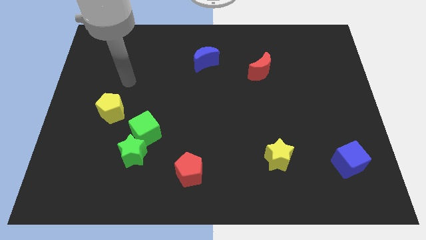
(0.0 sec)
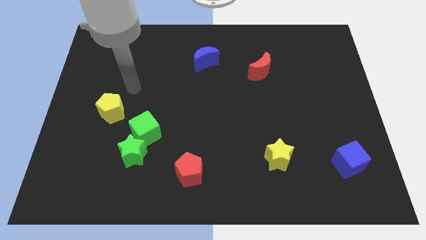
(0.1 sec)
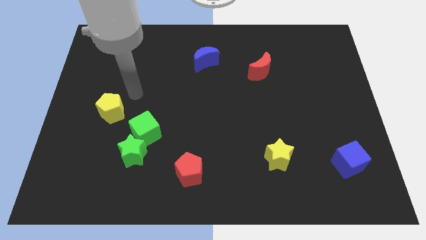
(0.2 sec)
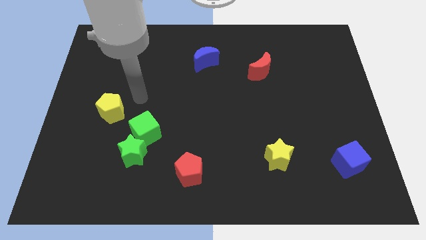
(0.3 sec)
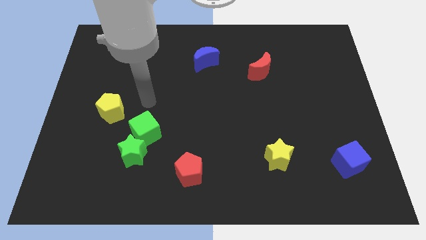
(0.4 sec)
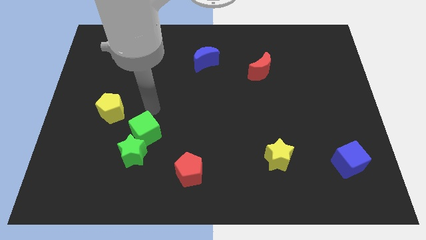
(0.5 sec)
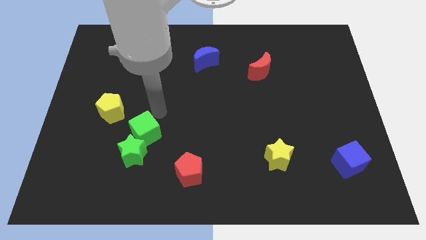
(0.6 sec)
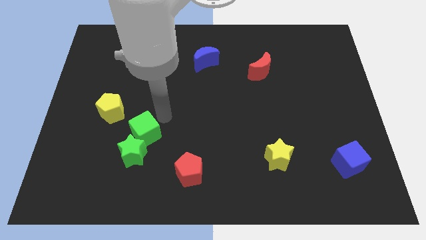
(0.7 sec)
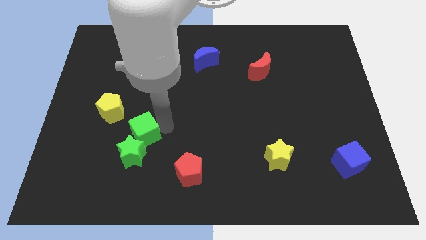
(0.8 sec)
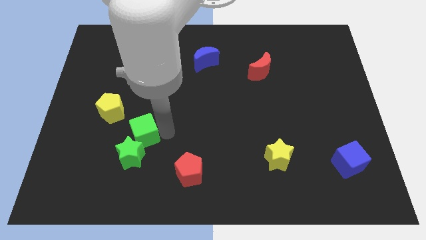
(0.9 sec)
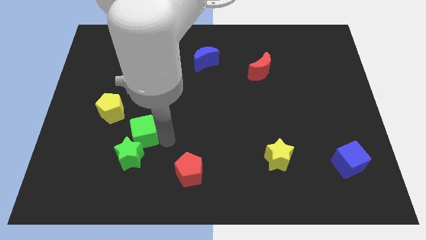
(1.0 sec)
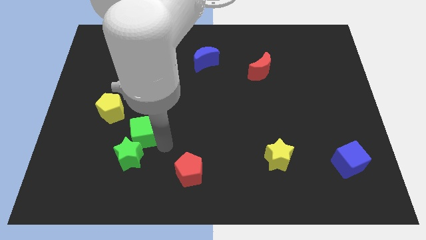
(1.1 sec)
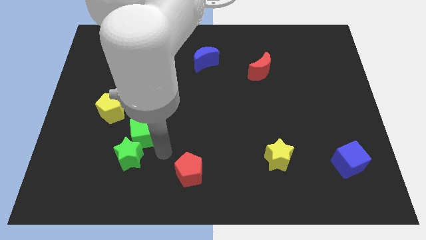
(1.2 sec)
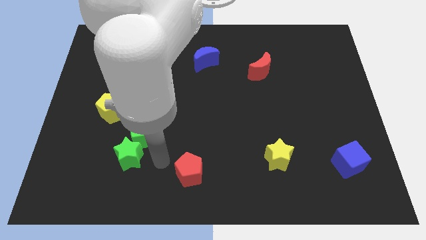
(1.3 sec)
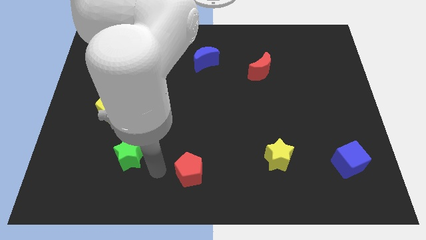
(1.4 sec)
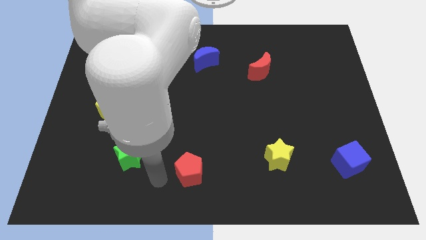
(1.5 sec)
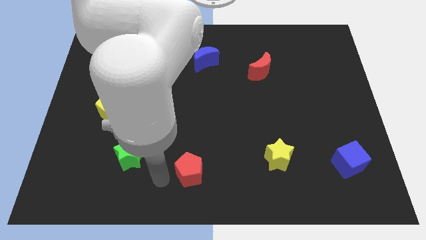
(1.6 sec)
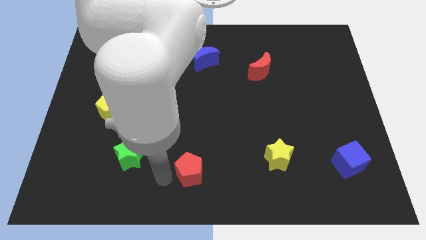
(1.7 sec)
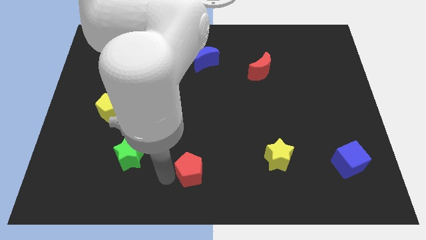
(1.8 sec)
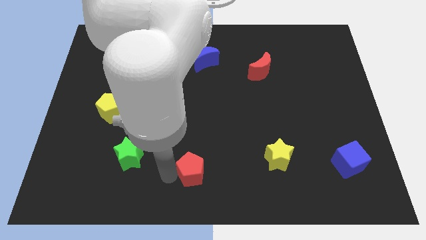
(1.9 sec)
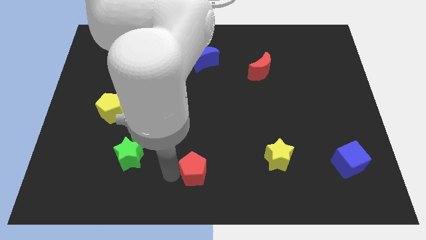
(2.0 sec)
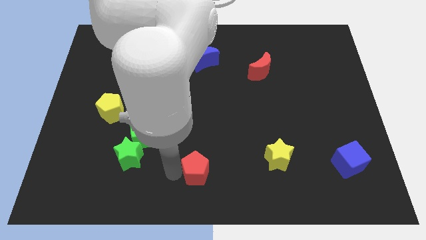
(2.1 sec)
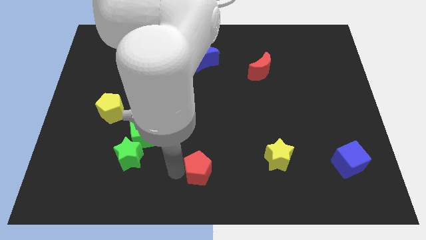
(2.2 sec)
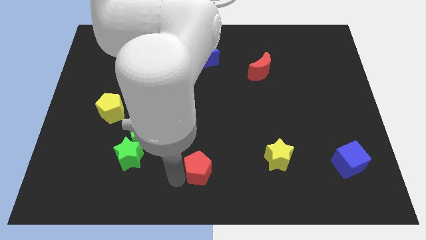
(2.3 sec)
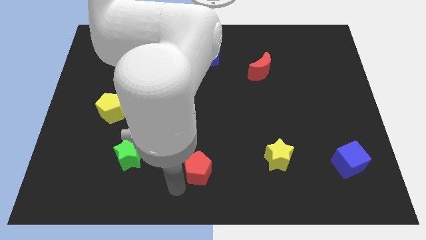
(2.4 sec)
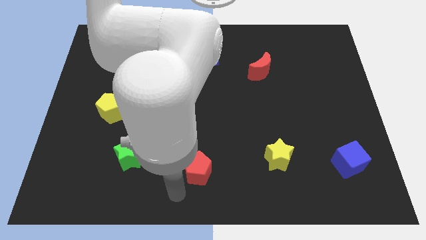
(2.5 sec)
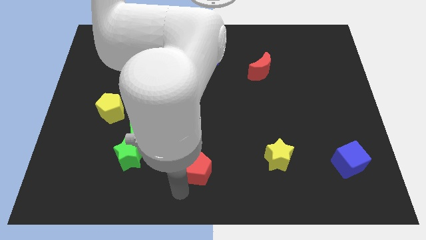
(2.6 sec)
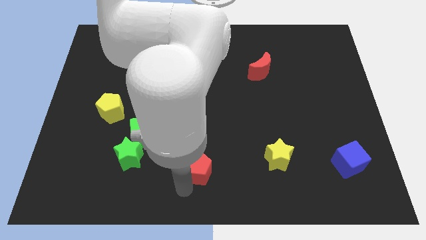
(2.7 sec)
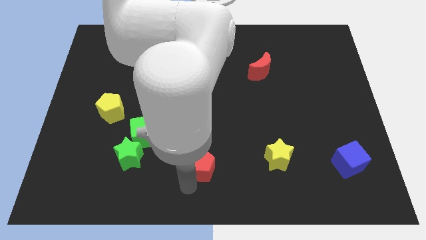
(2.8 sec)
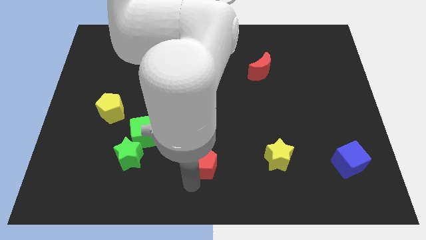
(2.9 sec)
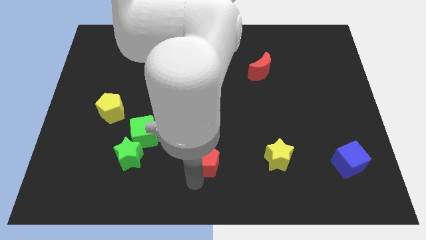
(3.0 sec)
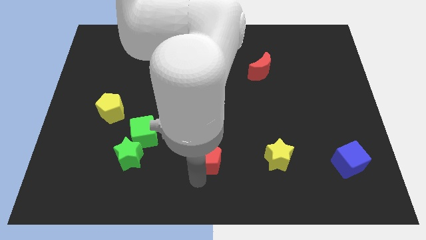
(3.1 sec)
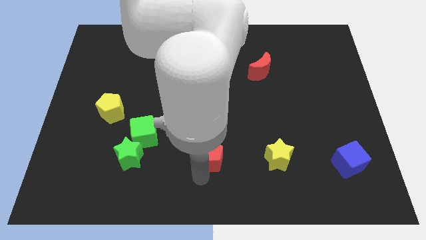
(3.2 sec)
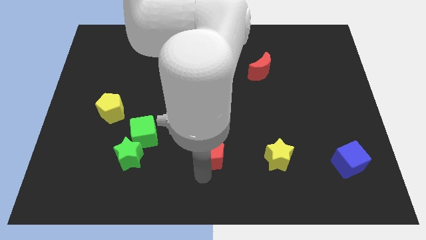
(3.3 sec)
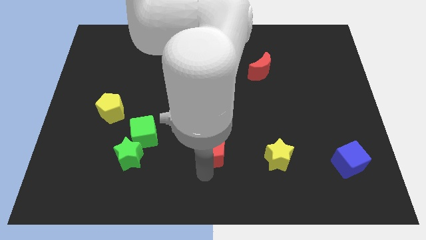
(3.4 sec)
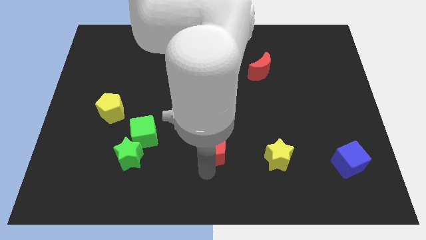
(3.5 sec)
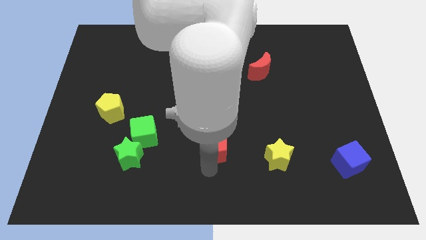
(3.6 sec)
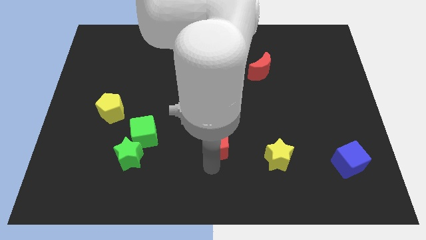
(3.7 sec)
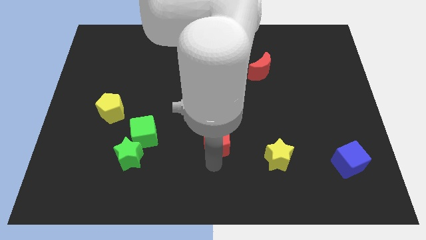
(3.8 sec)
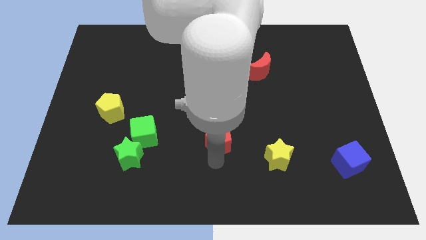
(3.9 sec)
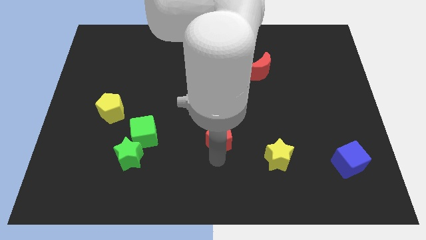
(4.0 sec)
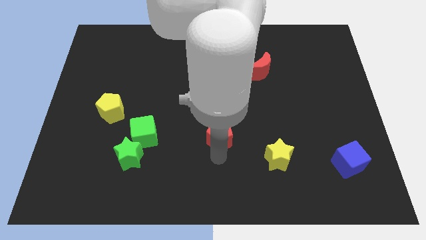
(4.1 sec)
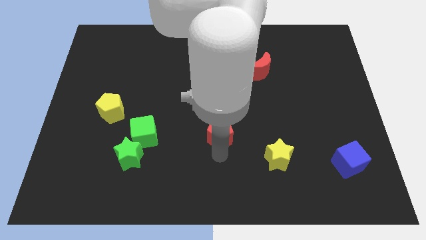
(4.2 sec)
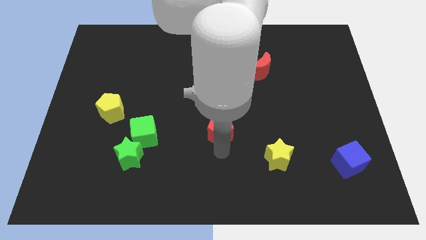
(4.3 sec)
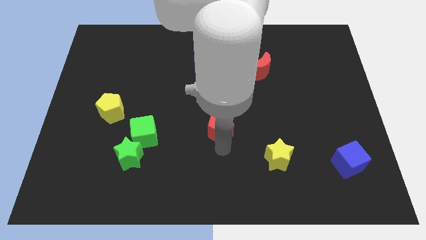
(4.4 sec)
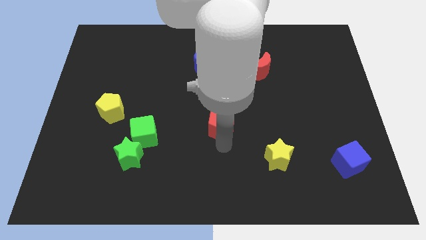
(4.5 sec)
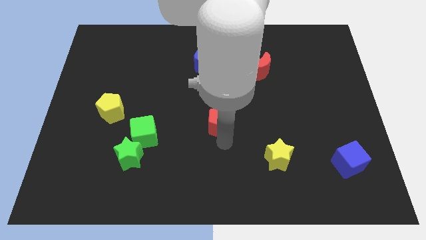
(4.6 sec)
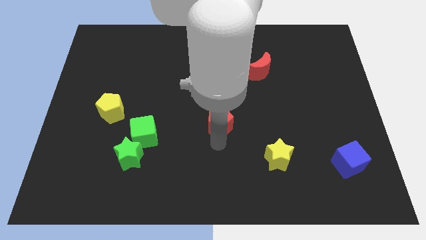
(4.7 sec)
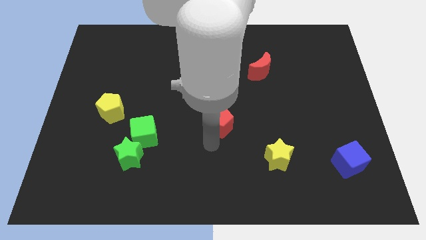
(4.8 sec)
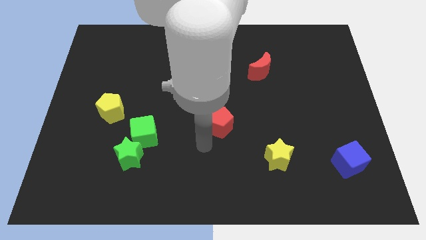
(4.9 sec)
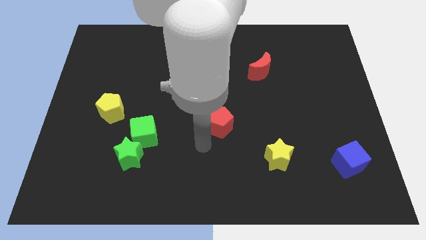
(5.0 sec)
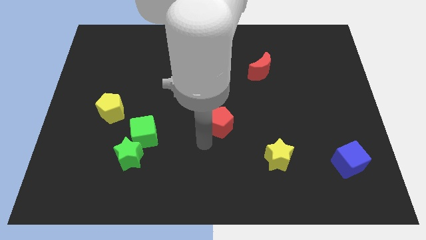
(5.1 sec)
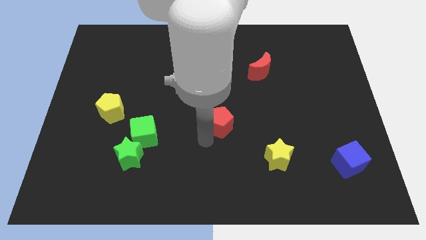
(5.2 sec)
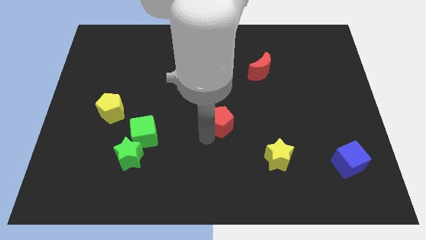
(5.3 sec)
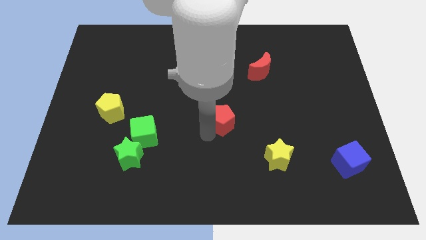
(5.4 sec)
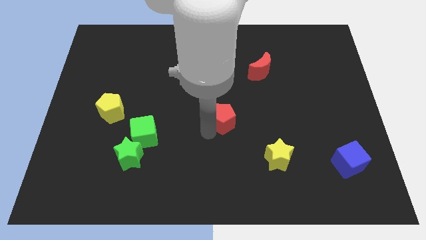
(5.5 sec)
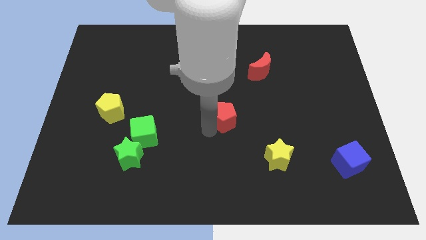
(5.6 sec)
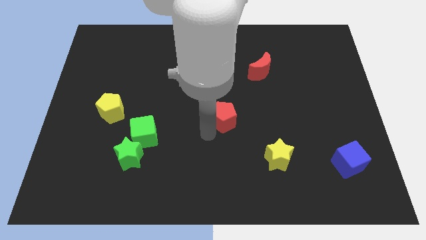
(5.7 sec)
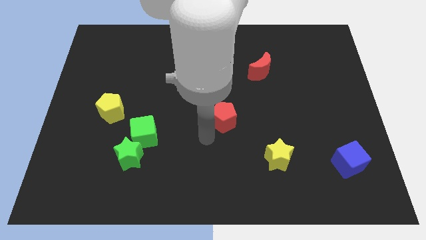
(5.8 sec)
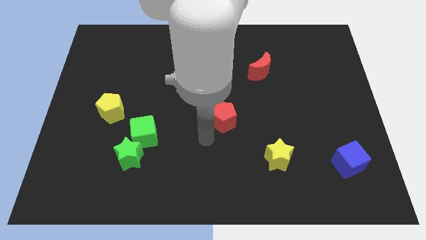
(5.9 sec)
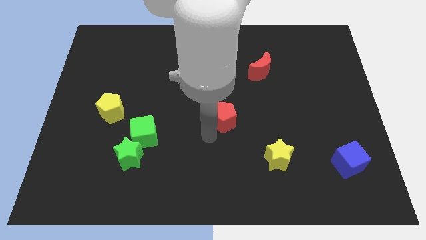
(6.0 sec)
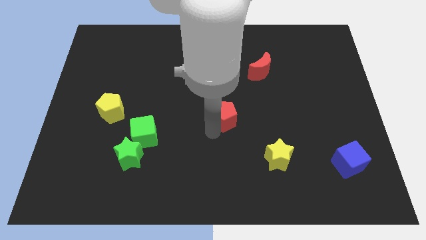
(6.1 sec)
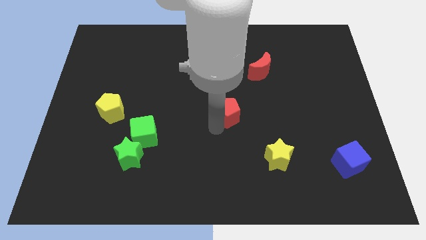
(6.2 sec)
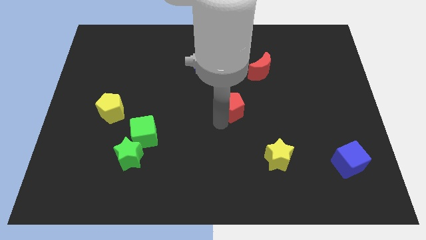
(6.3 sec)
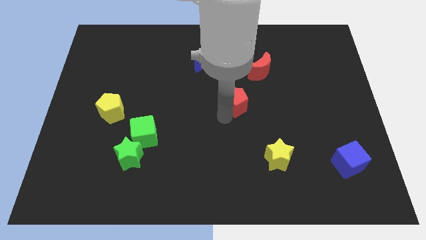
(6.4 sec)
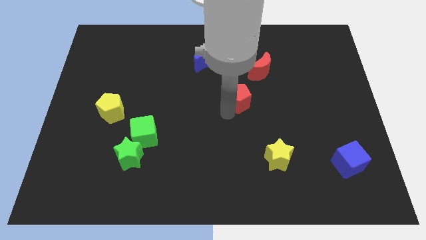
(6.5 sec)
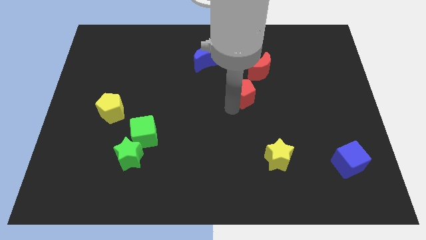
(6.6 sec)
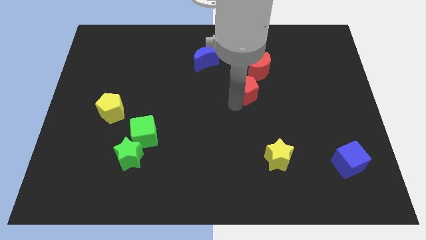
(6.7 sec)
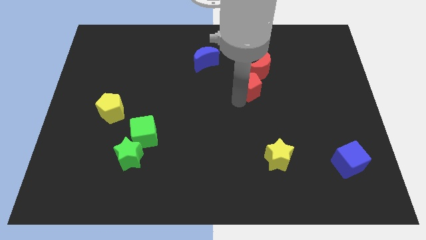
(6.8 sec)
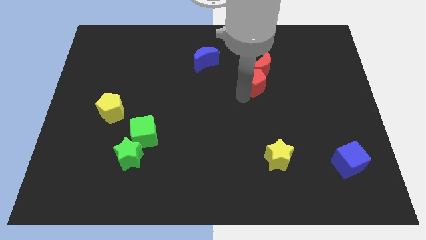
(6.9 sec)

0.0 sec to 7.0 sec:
slide the red pentagon close to the red moon

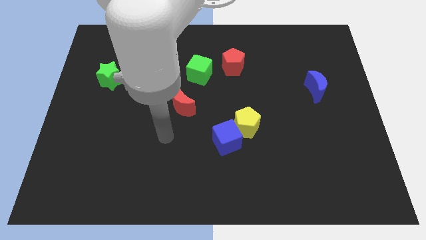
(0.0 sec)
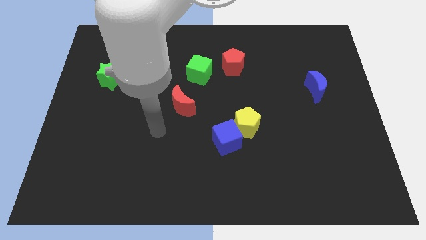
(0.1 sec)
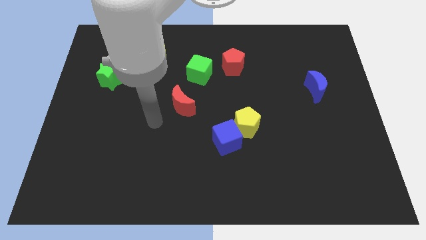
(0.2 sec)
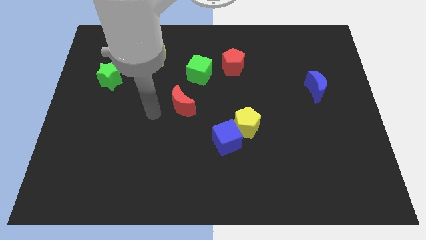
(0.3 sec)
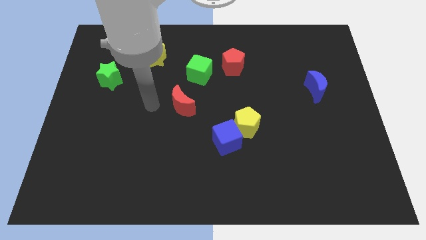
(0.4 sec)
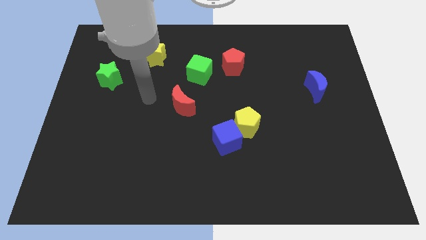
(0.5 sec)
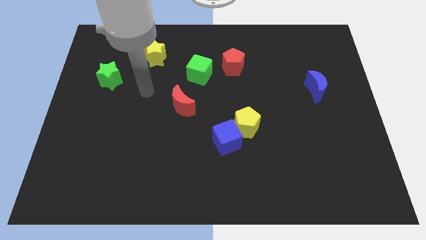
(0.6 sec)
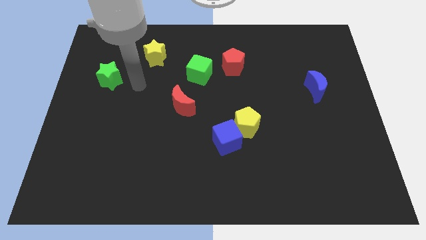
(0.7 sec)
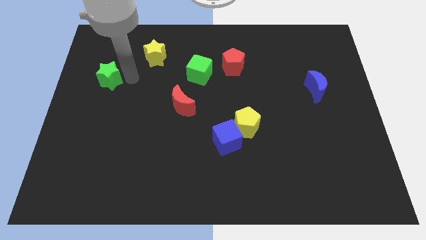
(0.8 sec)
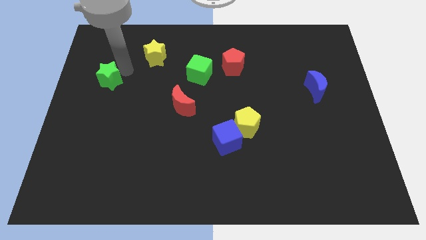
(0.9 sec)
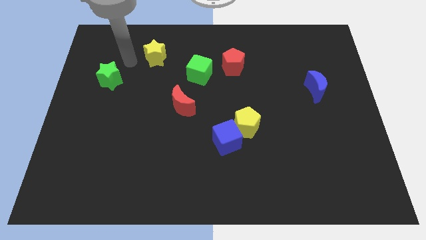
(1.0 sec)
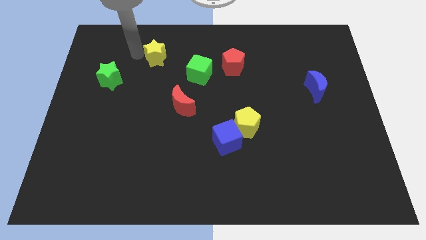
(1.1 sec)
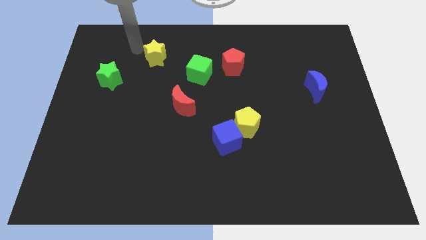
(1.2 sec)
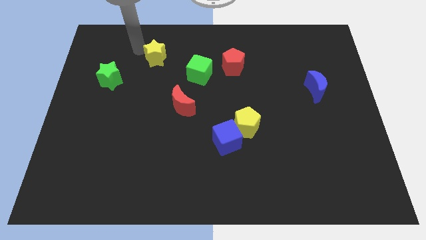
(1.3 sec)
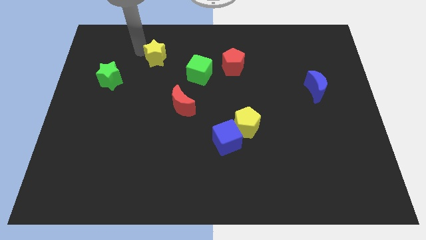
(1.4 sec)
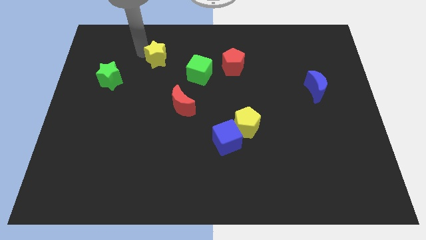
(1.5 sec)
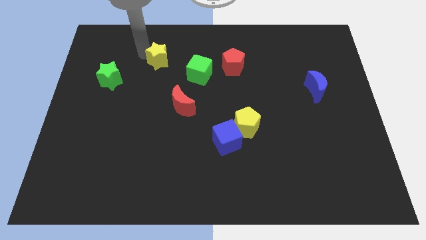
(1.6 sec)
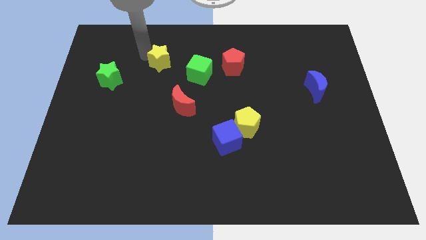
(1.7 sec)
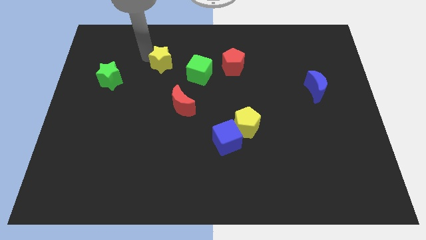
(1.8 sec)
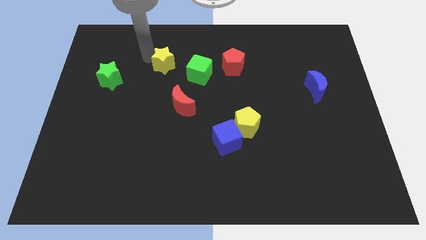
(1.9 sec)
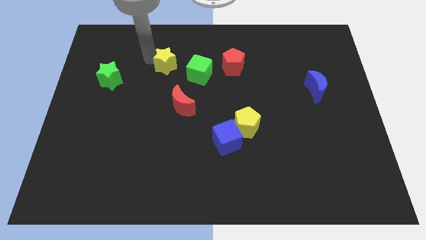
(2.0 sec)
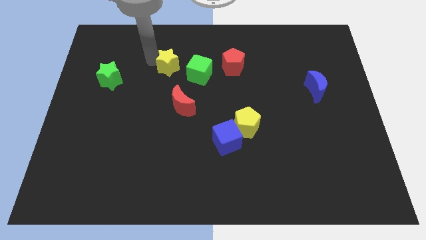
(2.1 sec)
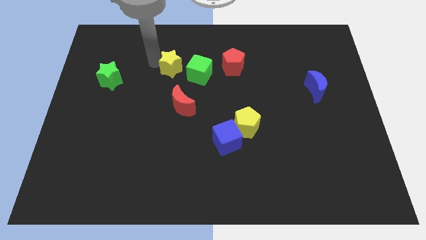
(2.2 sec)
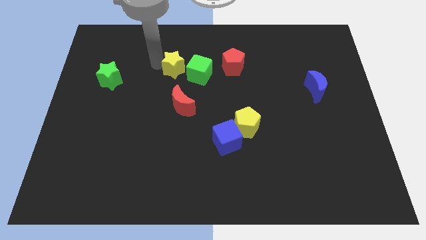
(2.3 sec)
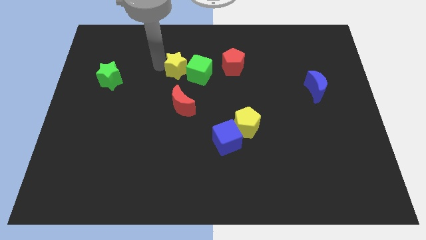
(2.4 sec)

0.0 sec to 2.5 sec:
put the yellow star close to the green cube
